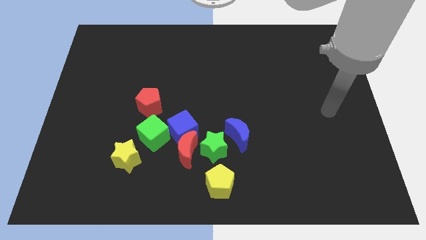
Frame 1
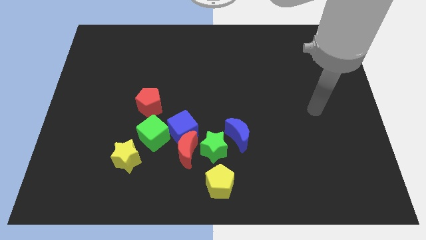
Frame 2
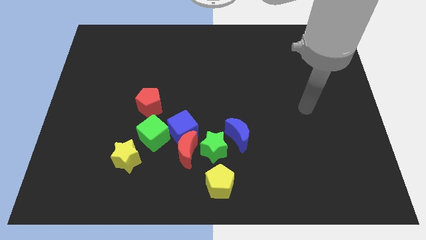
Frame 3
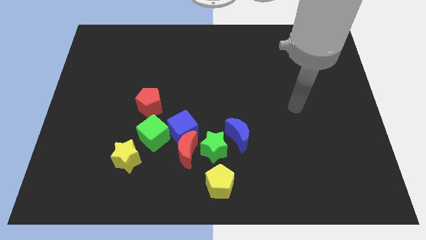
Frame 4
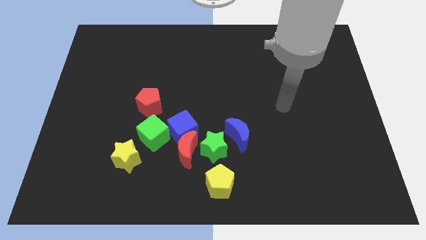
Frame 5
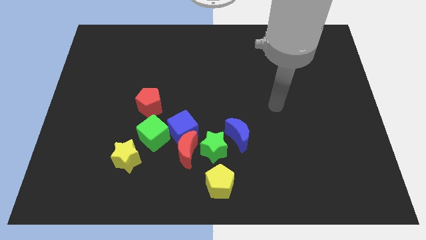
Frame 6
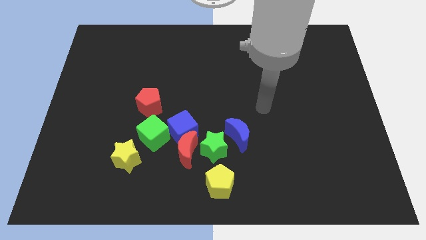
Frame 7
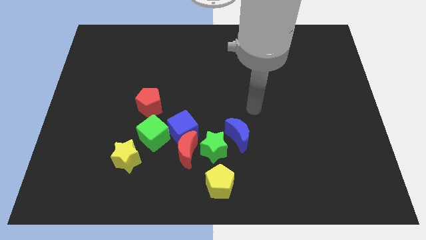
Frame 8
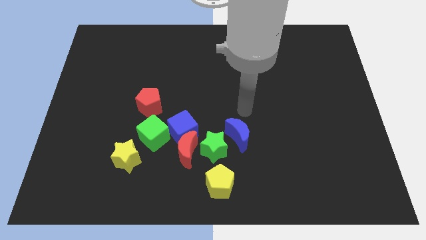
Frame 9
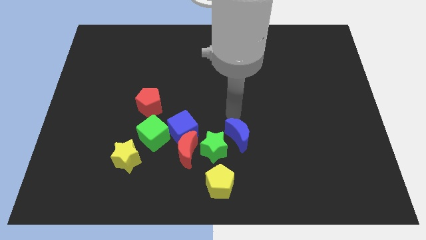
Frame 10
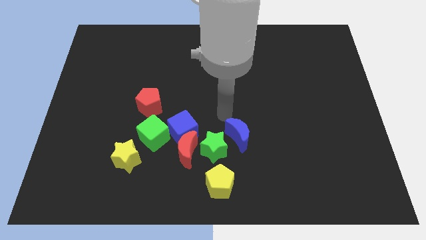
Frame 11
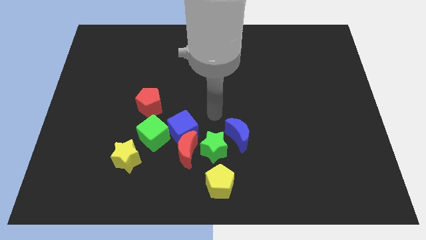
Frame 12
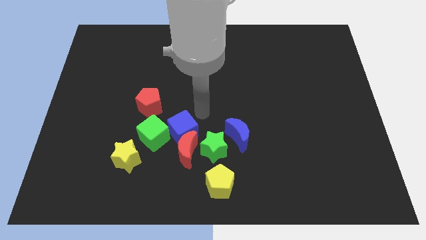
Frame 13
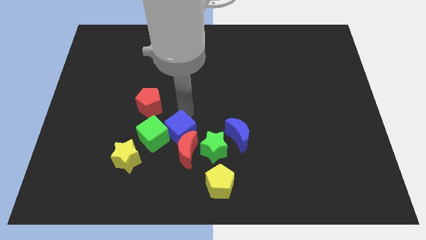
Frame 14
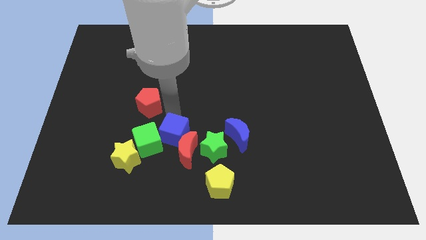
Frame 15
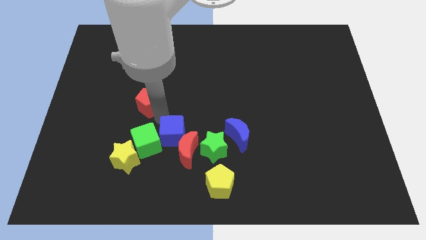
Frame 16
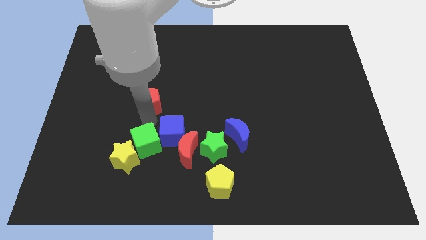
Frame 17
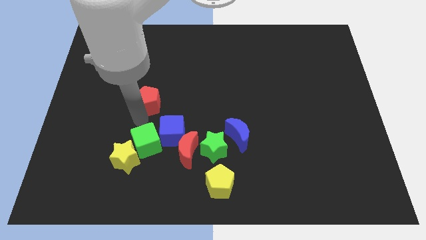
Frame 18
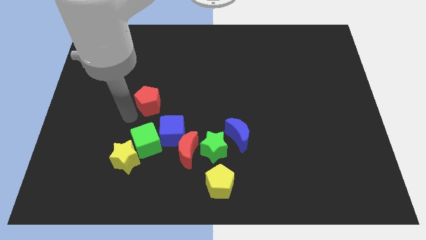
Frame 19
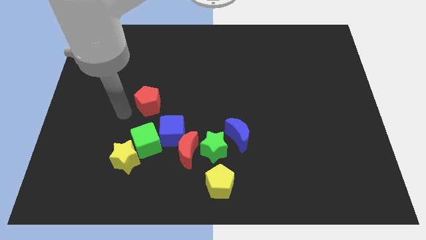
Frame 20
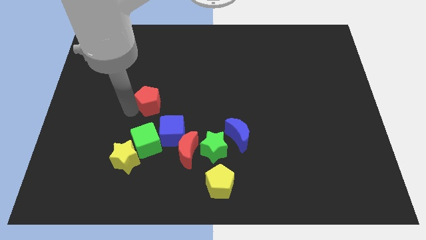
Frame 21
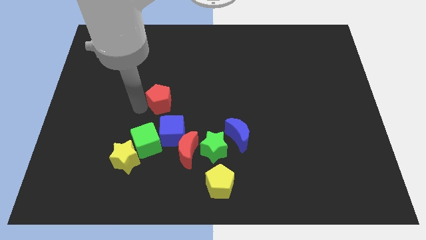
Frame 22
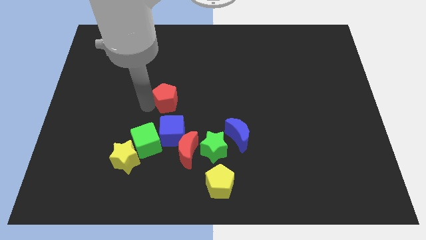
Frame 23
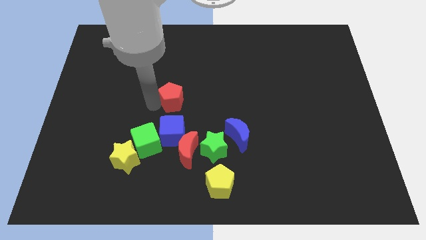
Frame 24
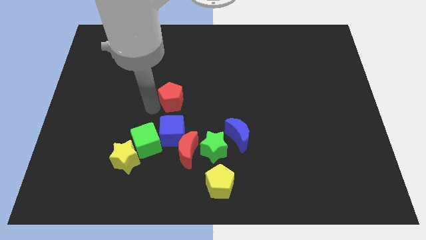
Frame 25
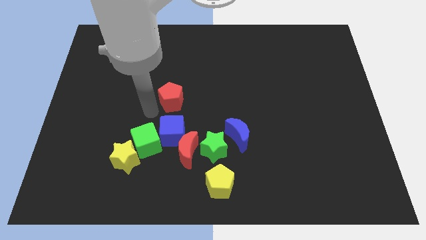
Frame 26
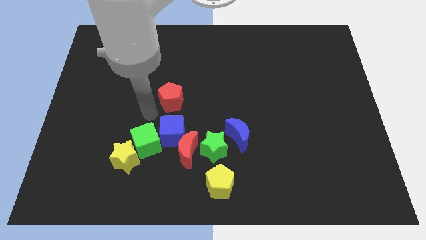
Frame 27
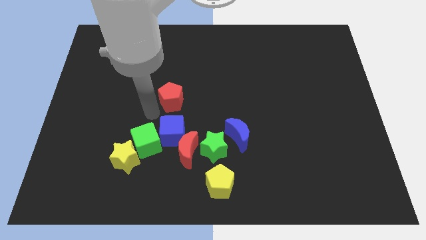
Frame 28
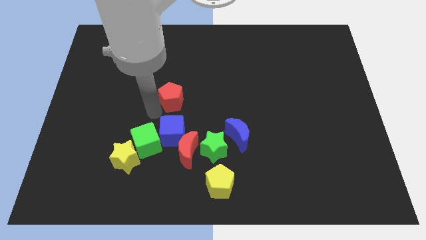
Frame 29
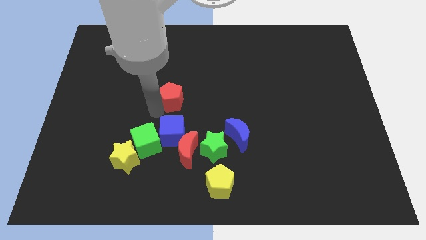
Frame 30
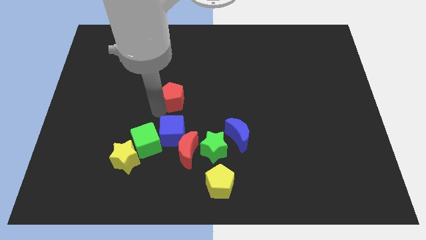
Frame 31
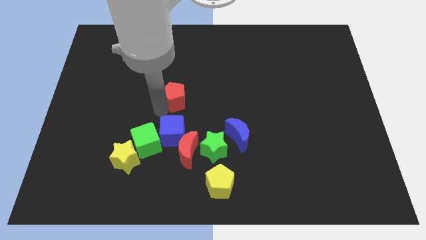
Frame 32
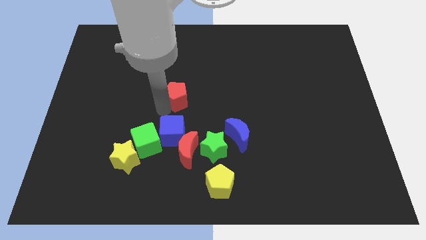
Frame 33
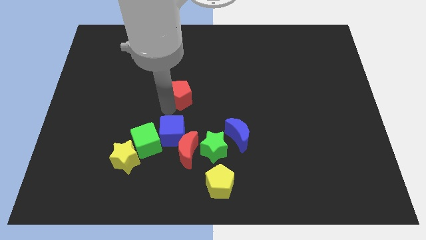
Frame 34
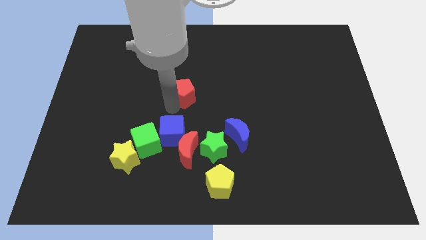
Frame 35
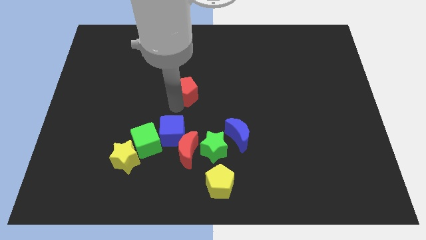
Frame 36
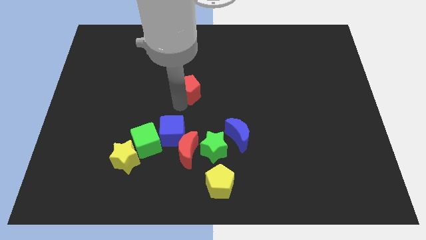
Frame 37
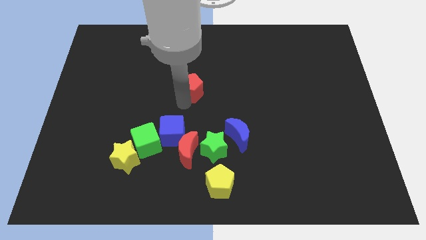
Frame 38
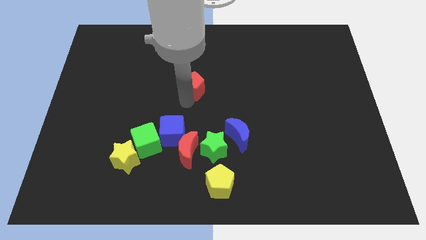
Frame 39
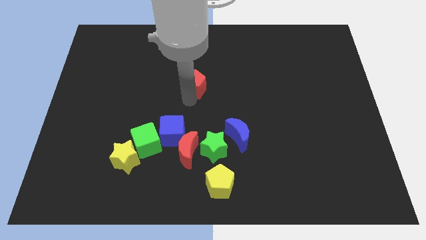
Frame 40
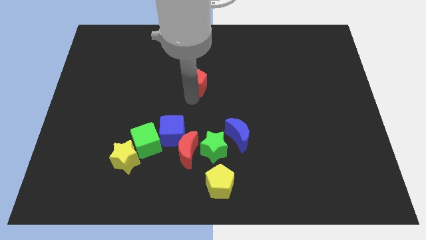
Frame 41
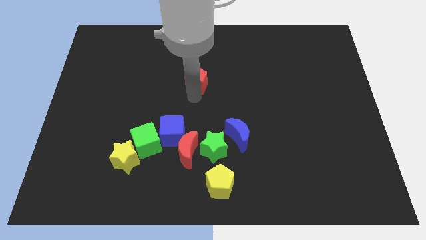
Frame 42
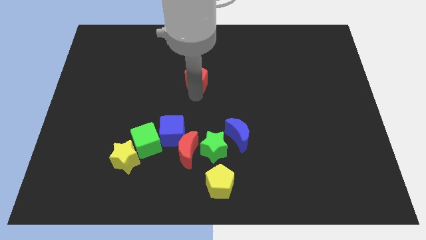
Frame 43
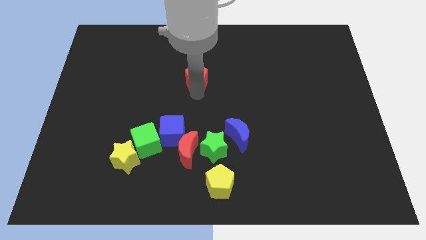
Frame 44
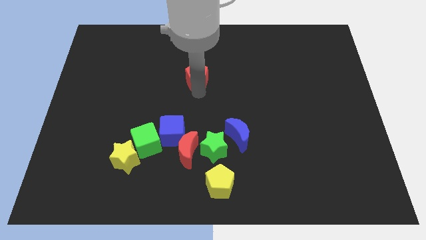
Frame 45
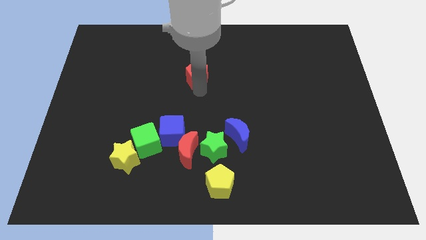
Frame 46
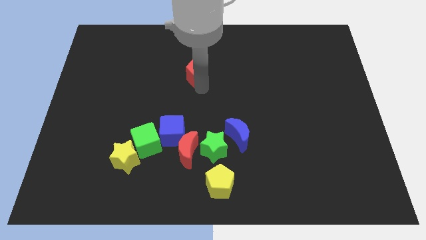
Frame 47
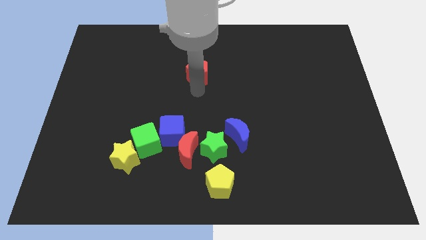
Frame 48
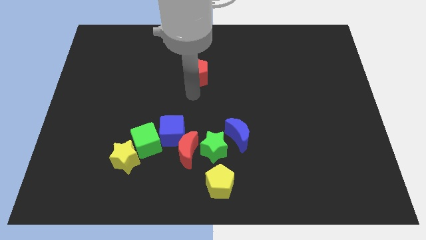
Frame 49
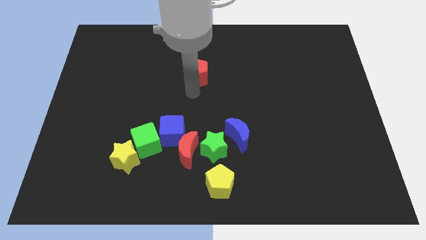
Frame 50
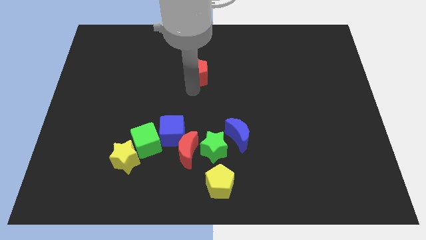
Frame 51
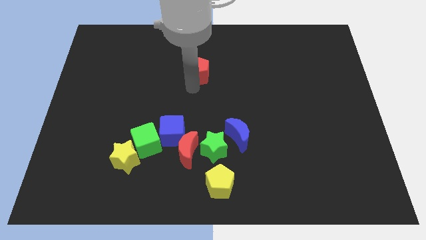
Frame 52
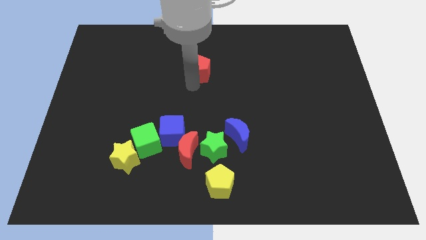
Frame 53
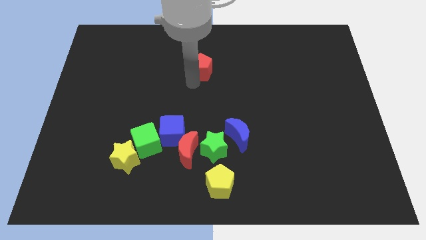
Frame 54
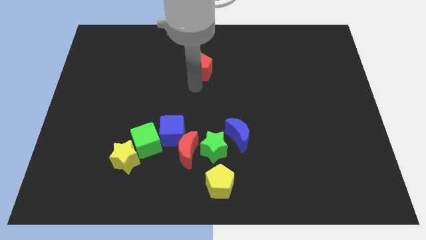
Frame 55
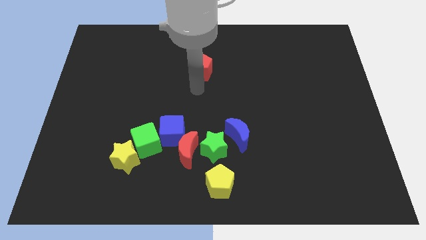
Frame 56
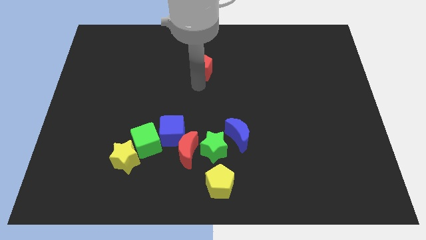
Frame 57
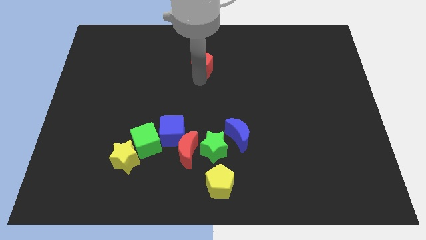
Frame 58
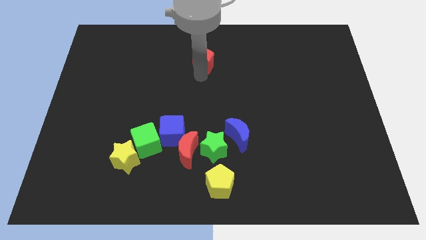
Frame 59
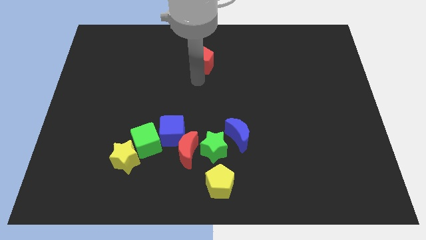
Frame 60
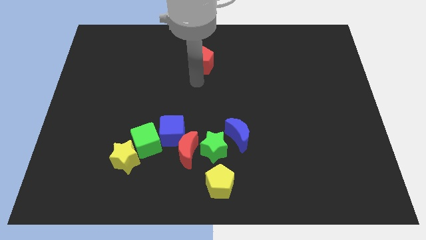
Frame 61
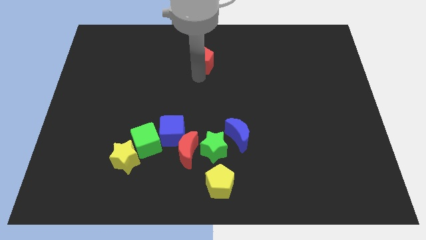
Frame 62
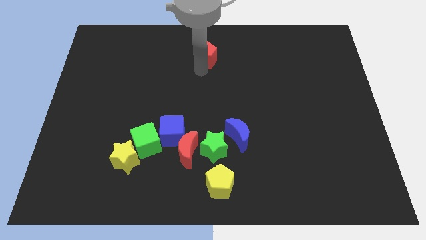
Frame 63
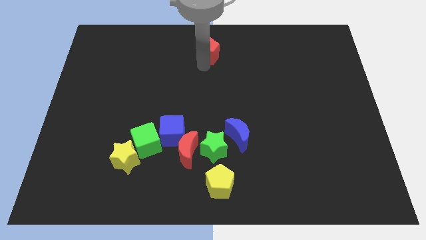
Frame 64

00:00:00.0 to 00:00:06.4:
move the red pentagon to the top

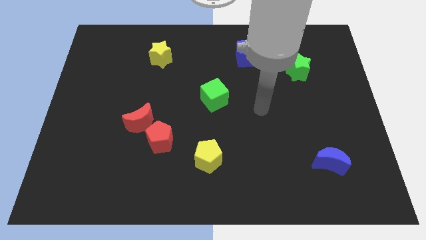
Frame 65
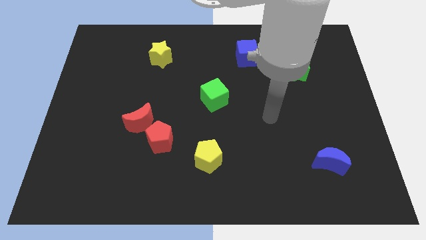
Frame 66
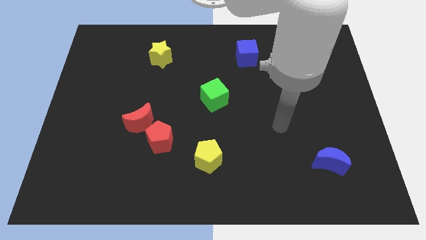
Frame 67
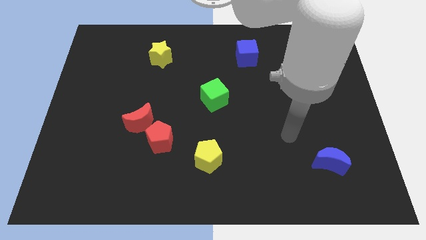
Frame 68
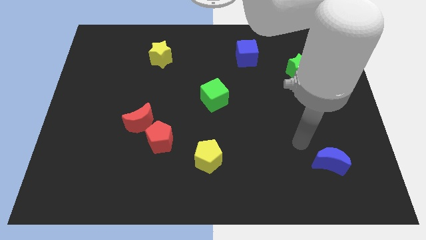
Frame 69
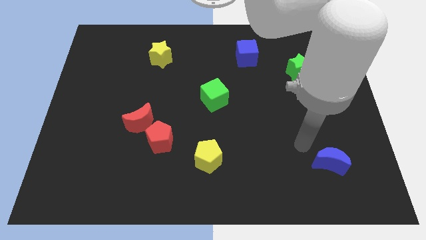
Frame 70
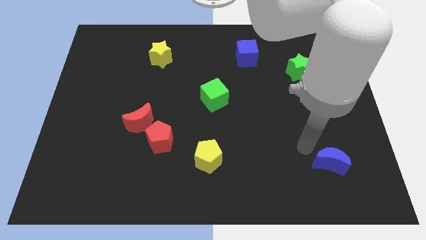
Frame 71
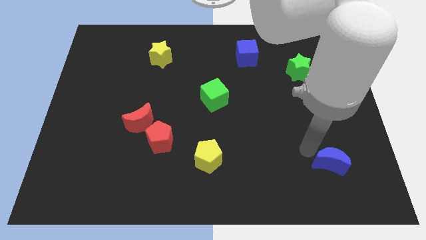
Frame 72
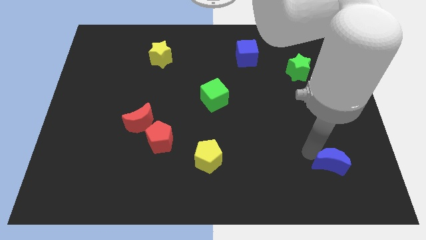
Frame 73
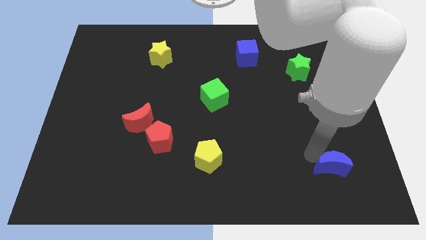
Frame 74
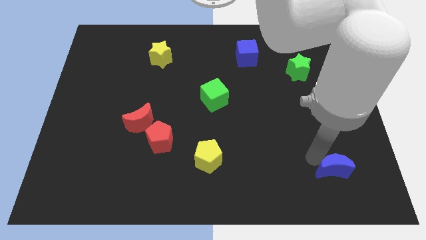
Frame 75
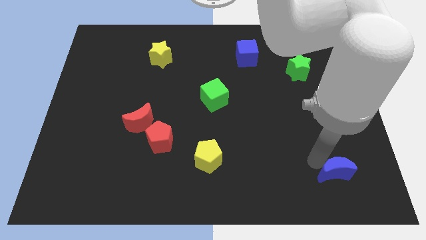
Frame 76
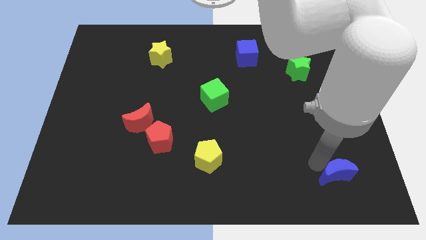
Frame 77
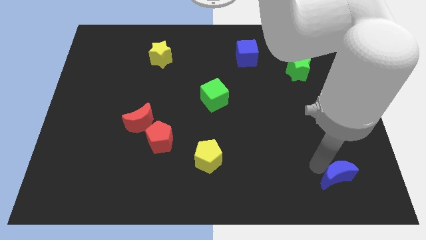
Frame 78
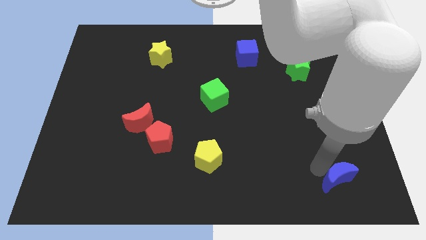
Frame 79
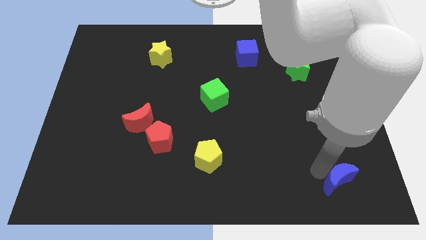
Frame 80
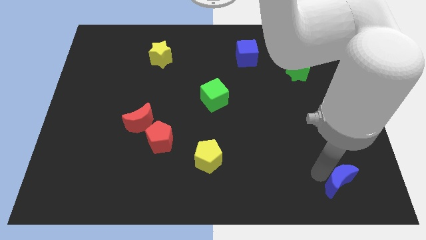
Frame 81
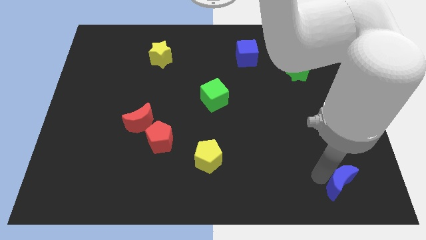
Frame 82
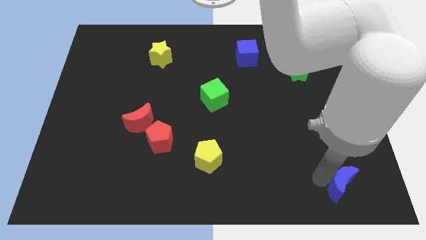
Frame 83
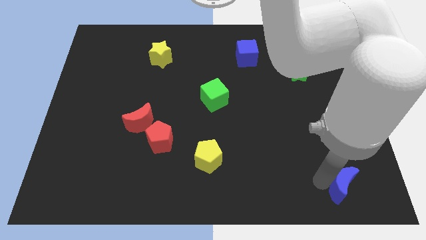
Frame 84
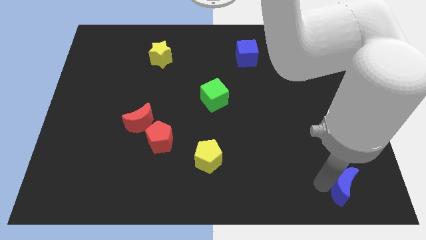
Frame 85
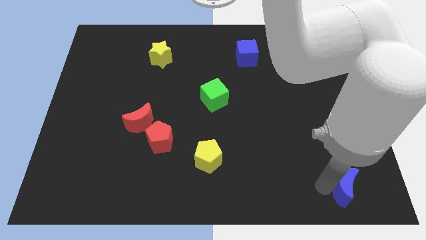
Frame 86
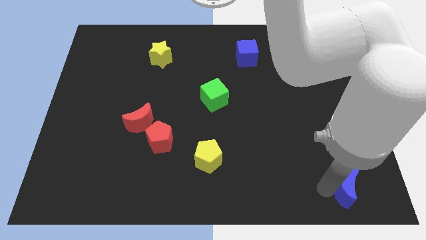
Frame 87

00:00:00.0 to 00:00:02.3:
push the blue moon to the lower right corner
